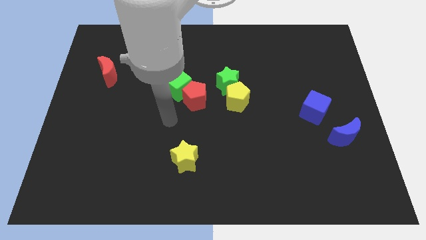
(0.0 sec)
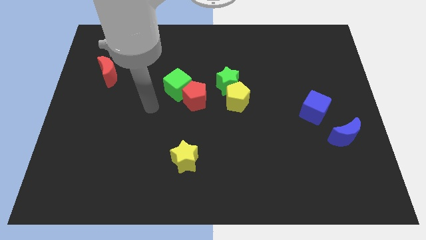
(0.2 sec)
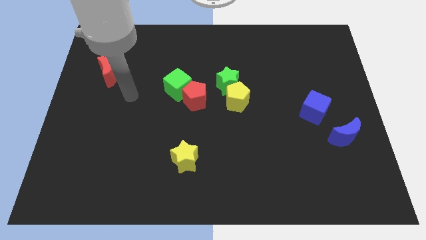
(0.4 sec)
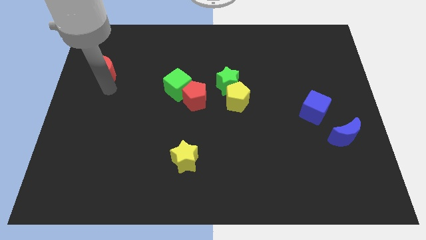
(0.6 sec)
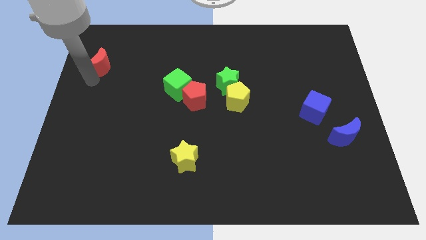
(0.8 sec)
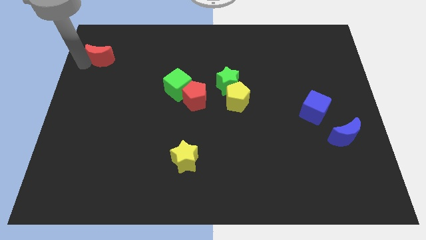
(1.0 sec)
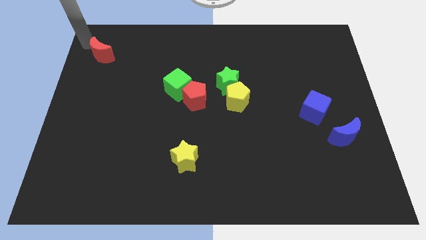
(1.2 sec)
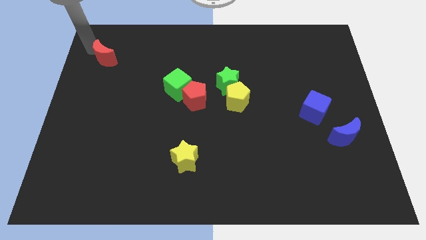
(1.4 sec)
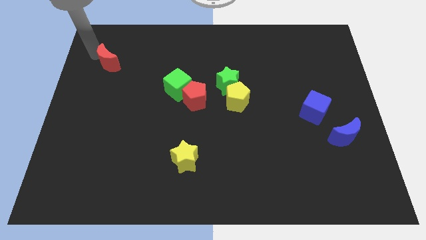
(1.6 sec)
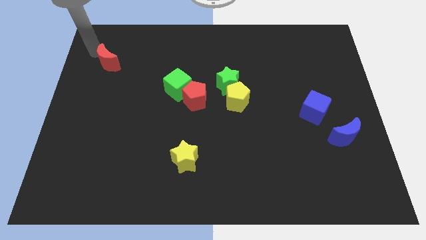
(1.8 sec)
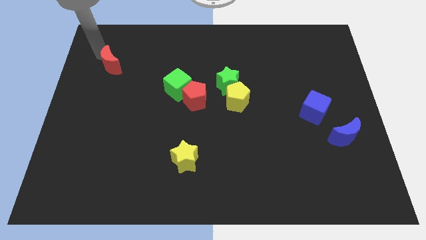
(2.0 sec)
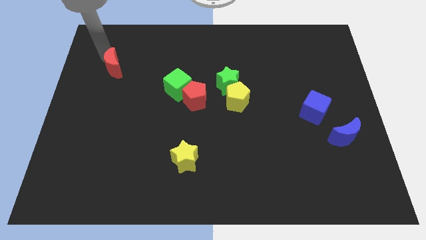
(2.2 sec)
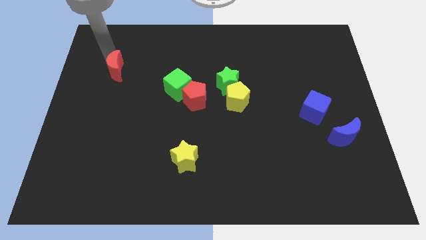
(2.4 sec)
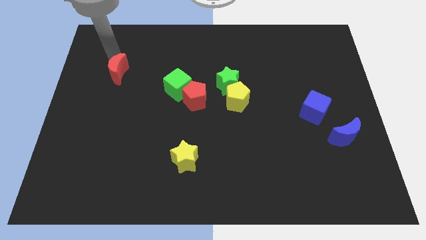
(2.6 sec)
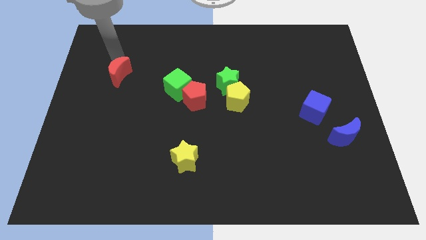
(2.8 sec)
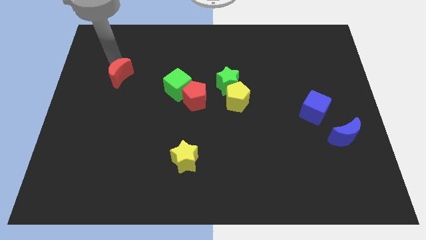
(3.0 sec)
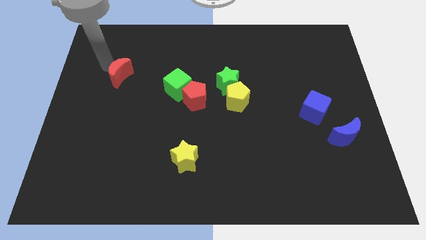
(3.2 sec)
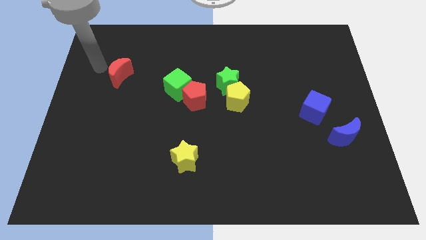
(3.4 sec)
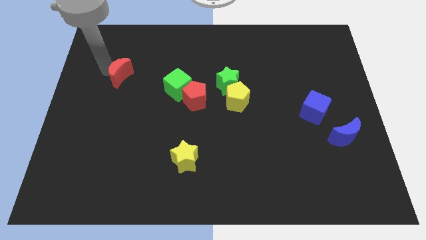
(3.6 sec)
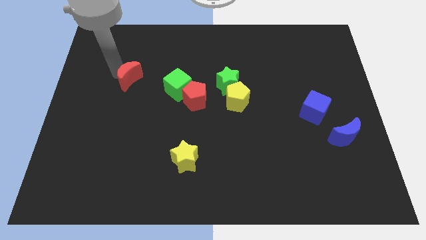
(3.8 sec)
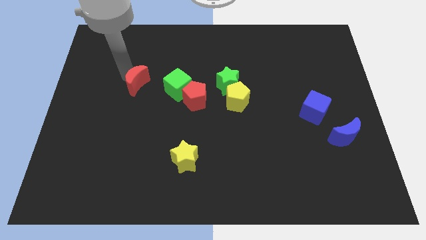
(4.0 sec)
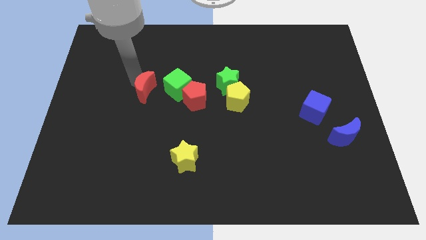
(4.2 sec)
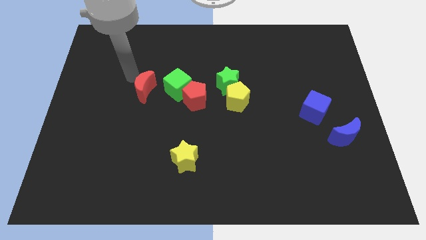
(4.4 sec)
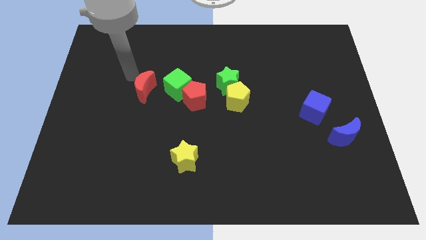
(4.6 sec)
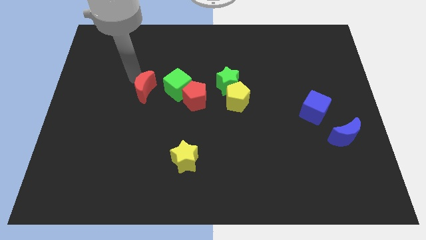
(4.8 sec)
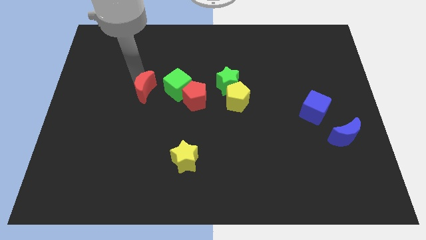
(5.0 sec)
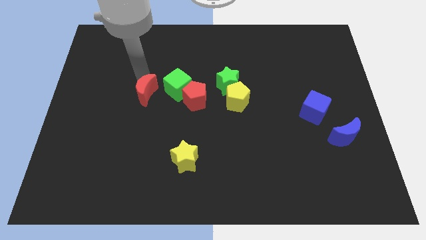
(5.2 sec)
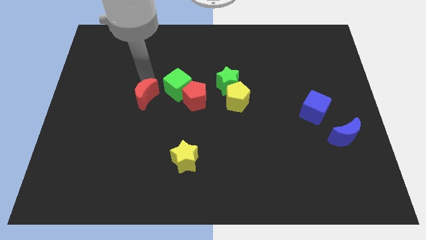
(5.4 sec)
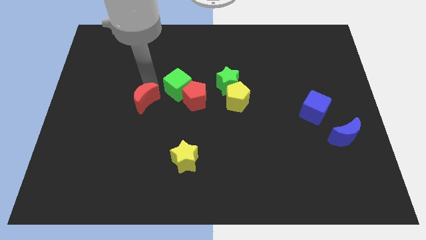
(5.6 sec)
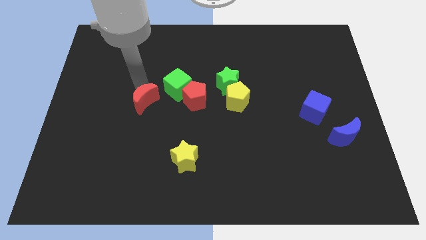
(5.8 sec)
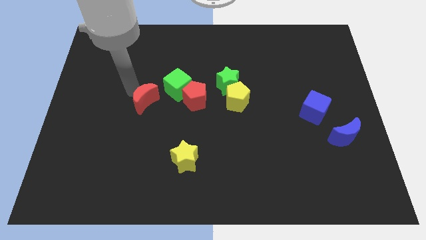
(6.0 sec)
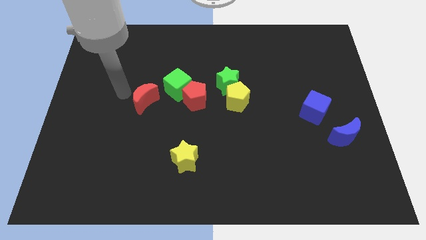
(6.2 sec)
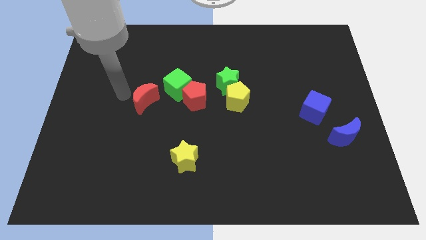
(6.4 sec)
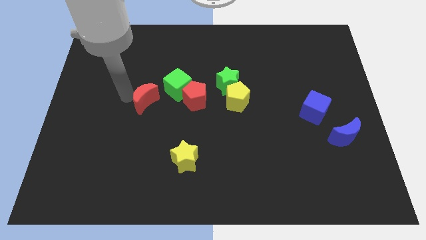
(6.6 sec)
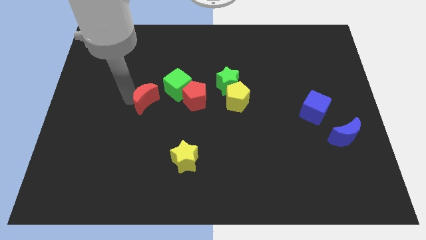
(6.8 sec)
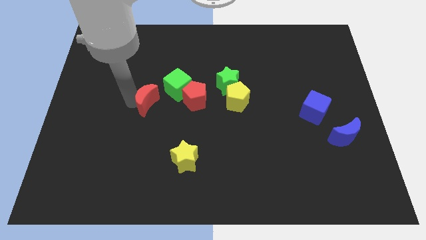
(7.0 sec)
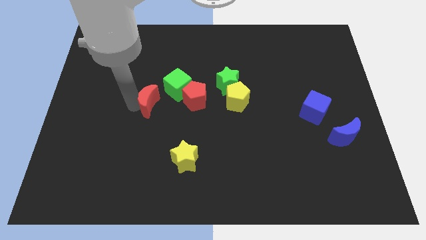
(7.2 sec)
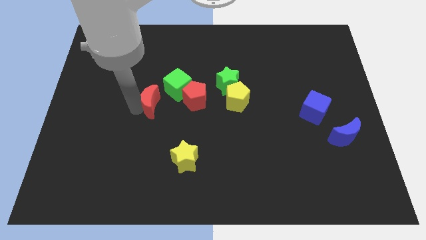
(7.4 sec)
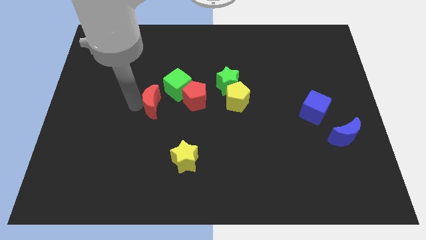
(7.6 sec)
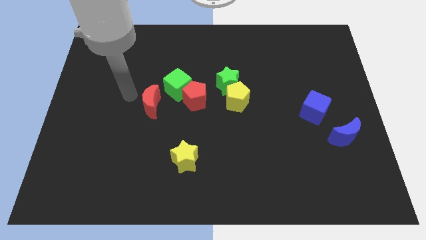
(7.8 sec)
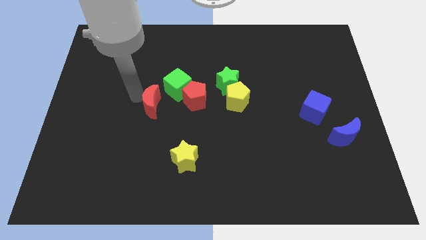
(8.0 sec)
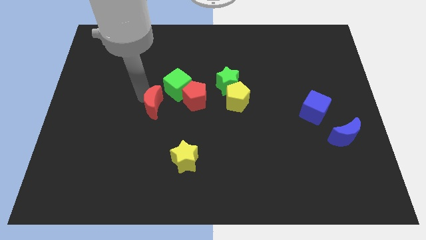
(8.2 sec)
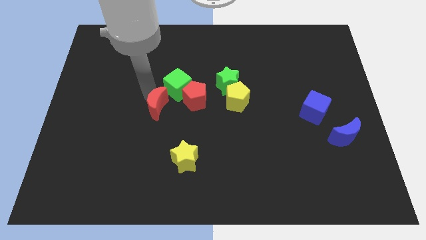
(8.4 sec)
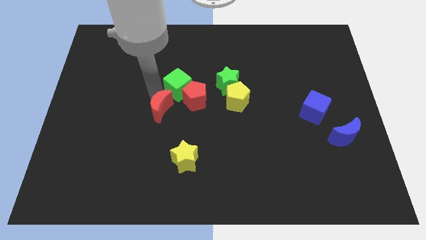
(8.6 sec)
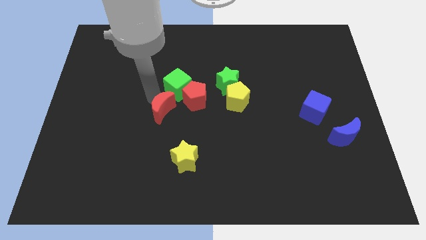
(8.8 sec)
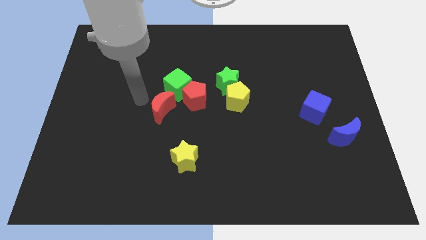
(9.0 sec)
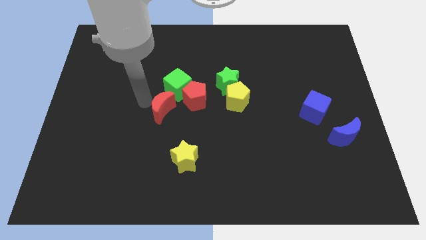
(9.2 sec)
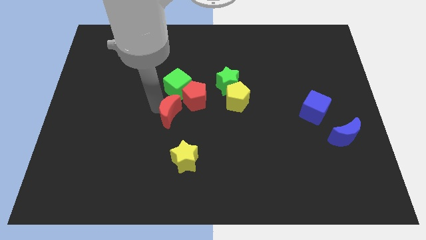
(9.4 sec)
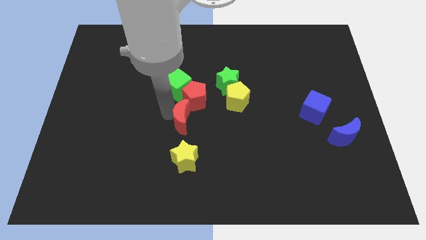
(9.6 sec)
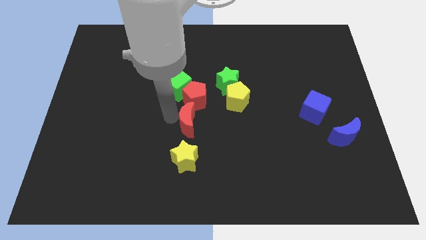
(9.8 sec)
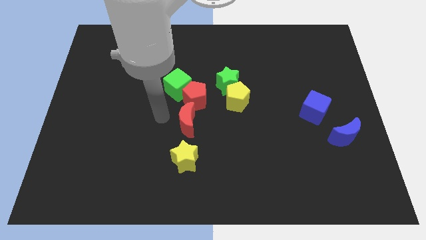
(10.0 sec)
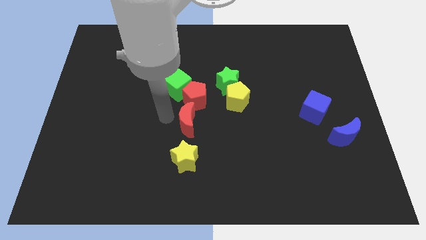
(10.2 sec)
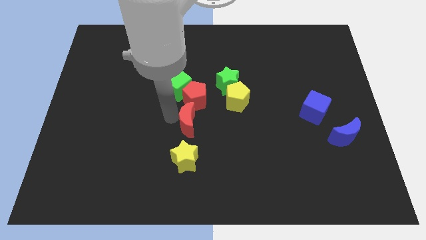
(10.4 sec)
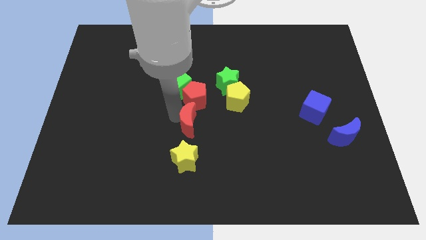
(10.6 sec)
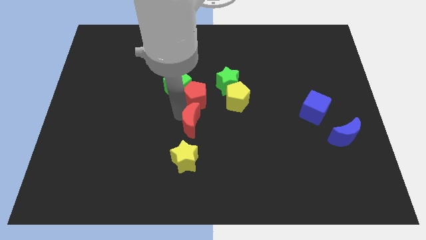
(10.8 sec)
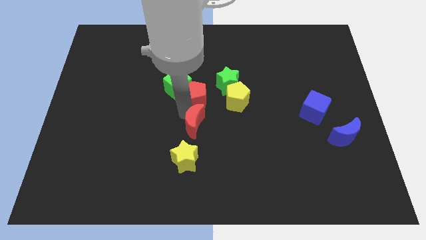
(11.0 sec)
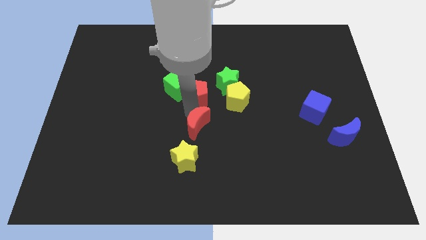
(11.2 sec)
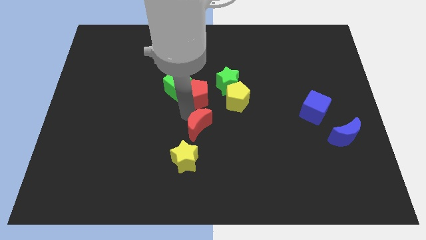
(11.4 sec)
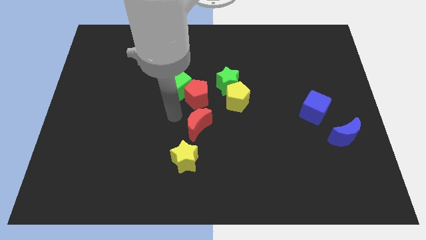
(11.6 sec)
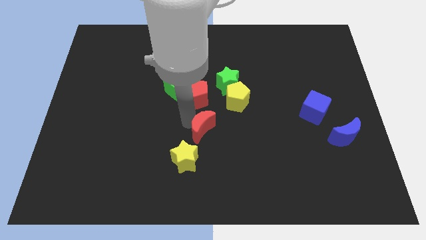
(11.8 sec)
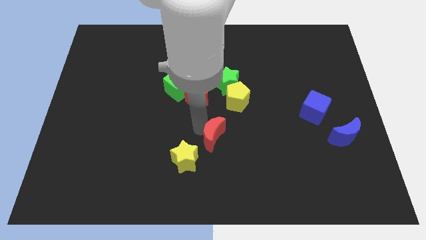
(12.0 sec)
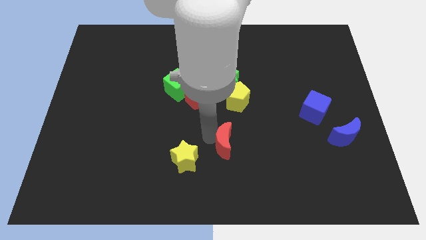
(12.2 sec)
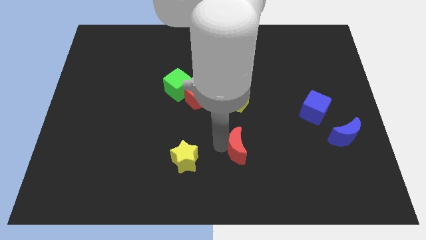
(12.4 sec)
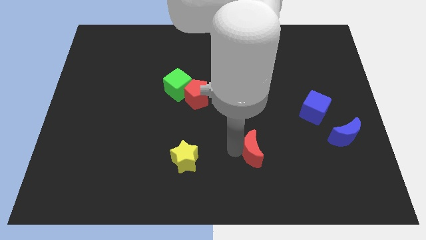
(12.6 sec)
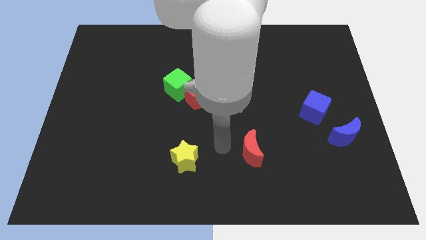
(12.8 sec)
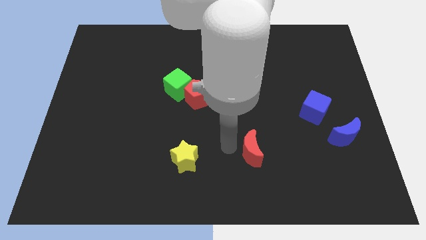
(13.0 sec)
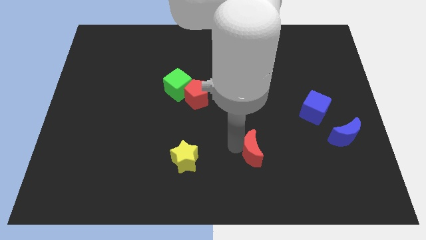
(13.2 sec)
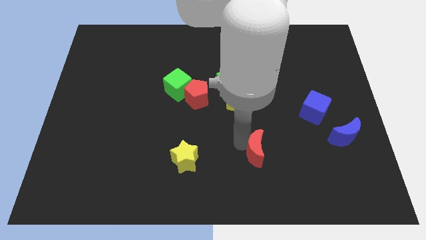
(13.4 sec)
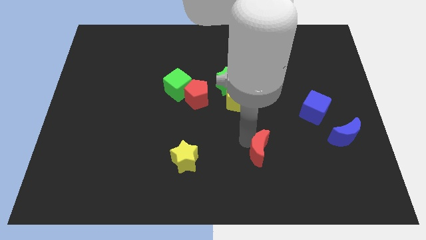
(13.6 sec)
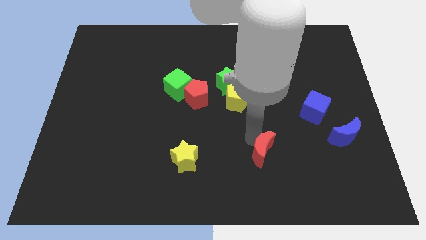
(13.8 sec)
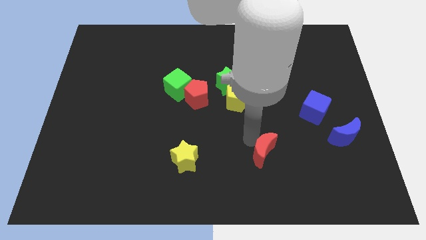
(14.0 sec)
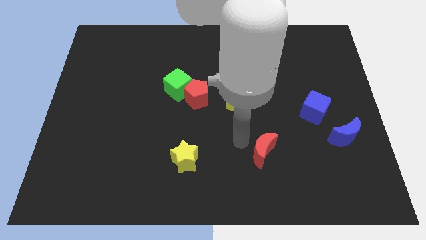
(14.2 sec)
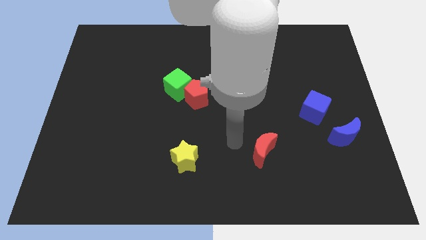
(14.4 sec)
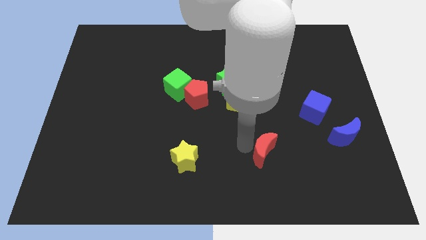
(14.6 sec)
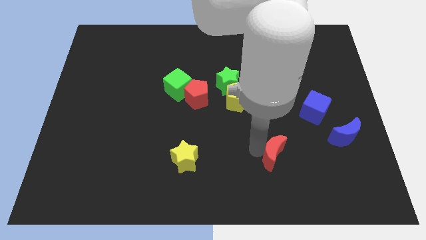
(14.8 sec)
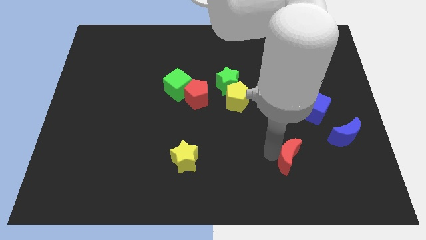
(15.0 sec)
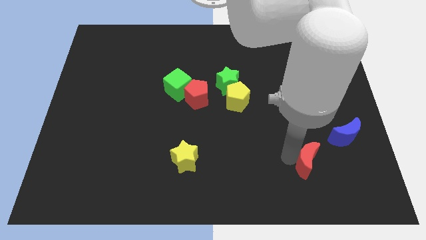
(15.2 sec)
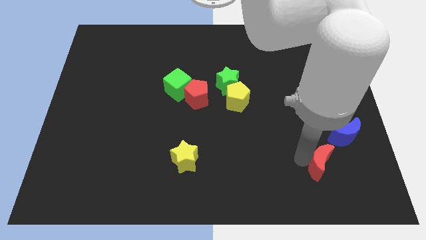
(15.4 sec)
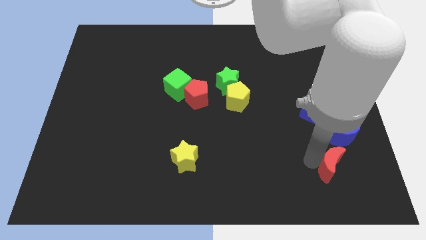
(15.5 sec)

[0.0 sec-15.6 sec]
slide the red moon to the bottom of the blue moon
